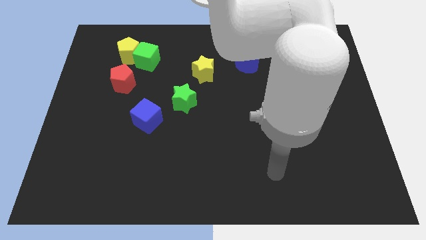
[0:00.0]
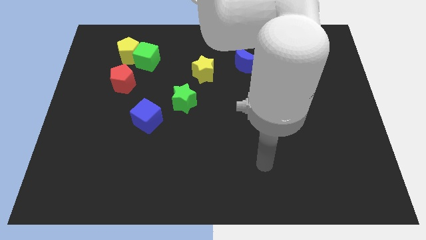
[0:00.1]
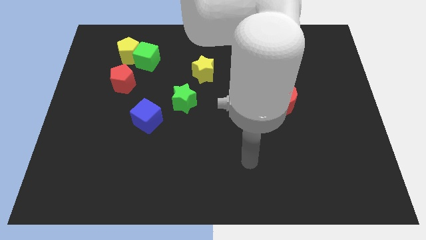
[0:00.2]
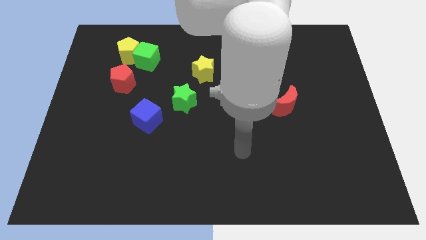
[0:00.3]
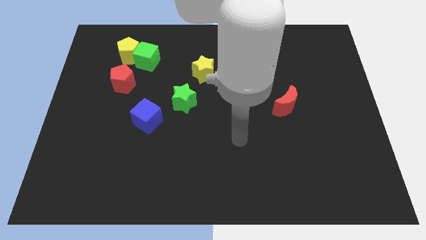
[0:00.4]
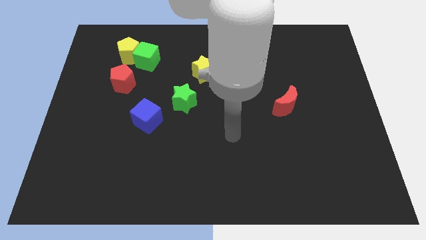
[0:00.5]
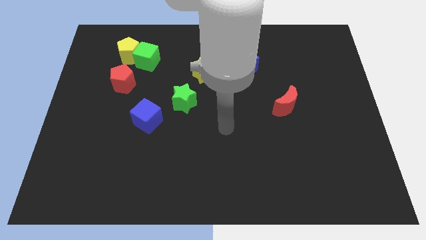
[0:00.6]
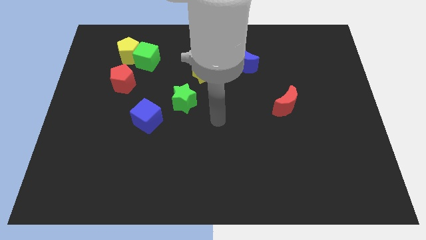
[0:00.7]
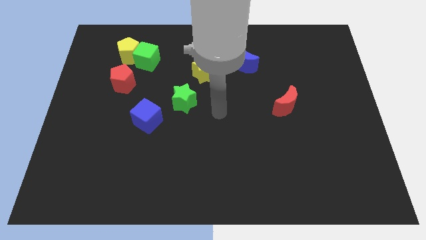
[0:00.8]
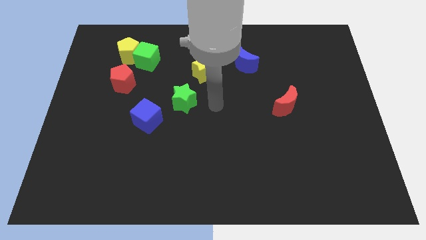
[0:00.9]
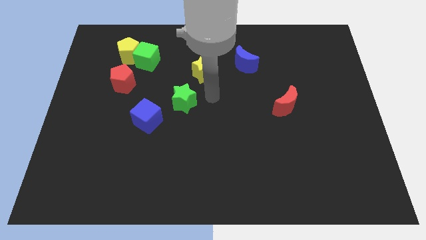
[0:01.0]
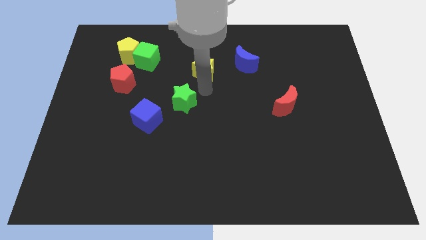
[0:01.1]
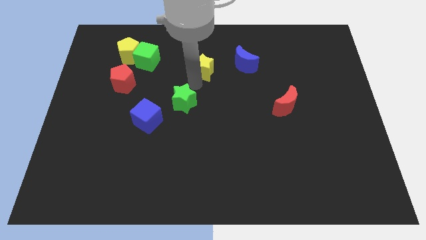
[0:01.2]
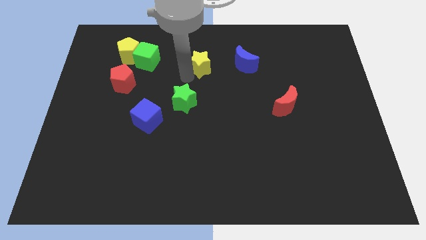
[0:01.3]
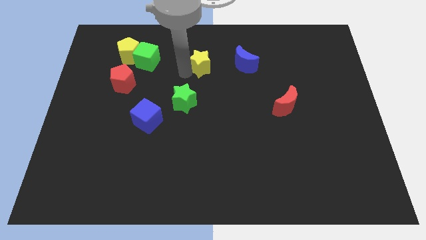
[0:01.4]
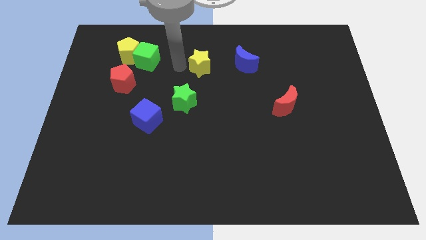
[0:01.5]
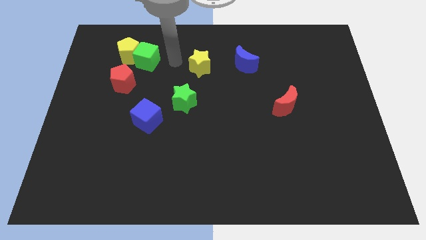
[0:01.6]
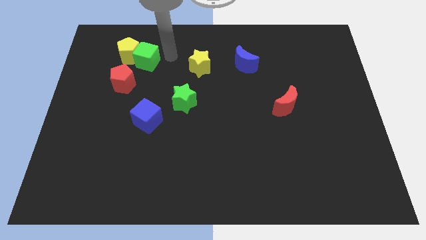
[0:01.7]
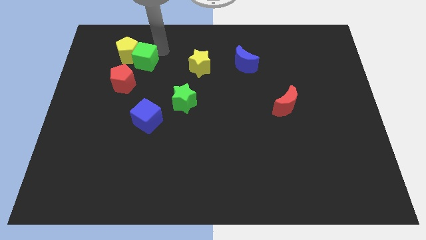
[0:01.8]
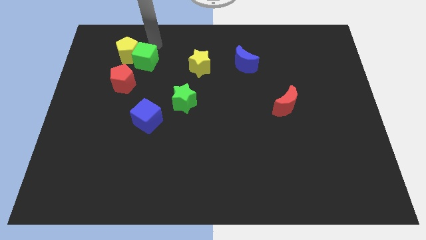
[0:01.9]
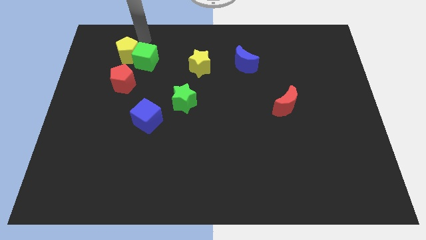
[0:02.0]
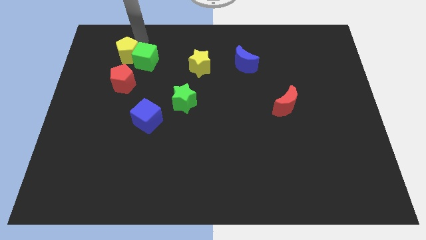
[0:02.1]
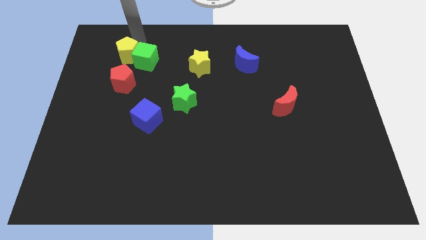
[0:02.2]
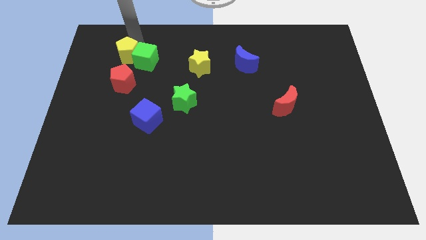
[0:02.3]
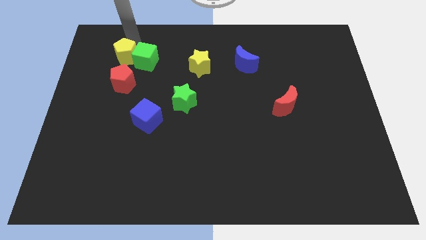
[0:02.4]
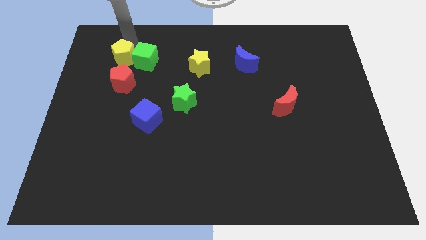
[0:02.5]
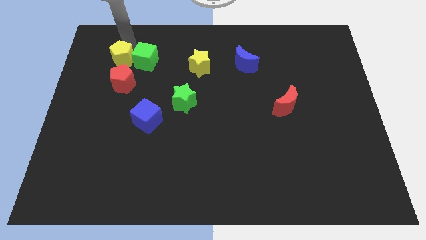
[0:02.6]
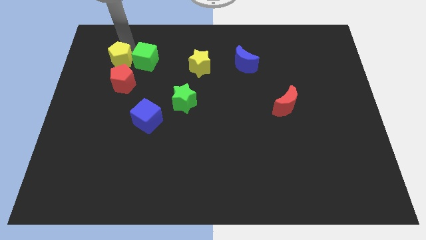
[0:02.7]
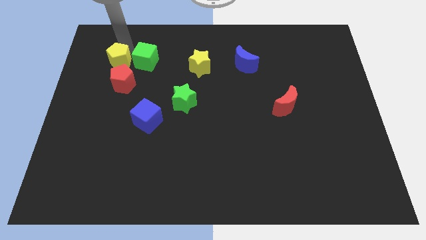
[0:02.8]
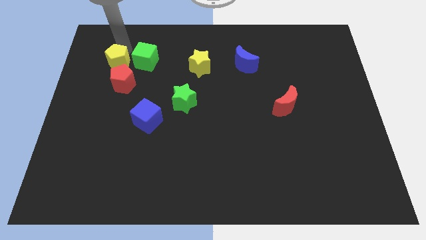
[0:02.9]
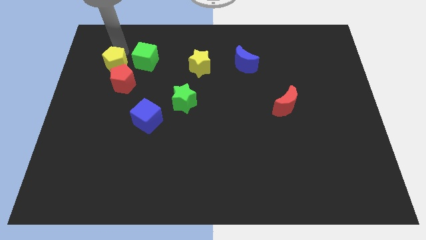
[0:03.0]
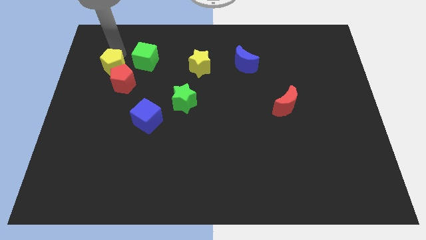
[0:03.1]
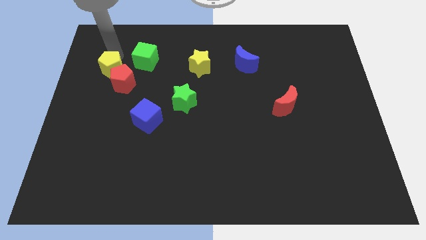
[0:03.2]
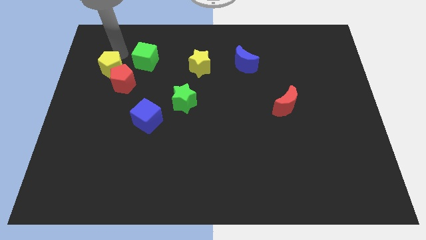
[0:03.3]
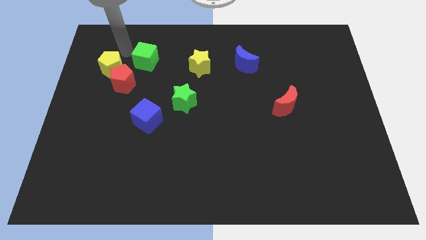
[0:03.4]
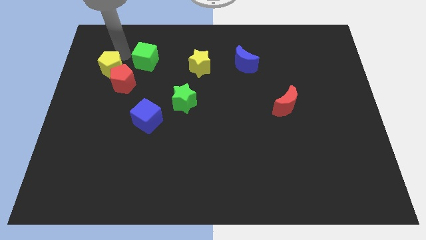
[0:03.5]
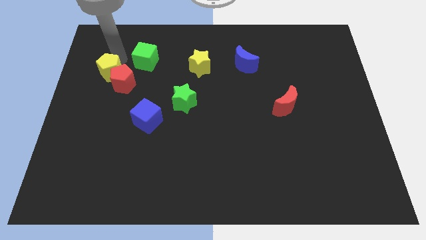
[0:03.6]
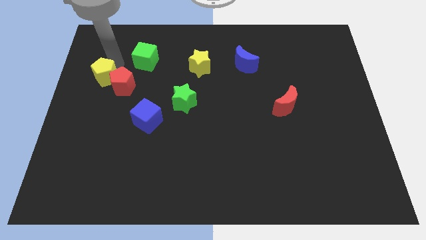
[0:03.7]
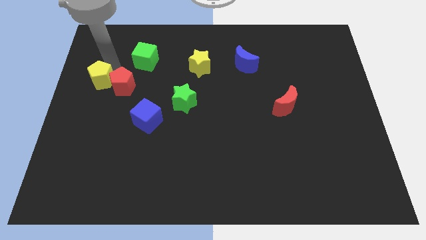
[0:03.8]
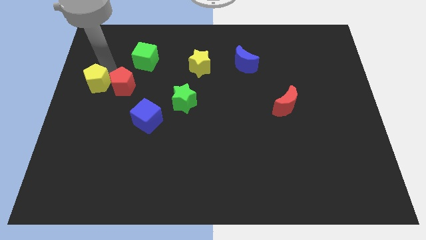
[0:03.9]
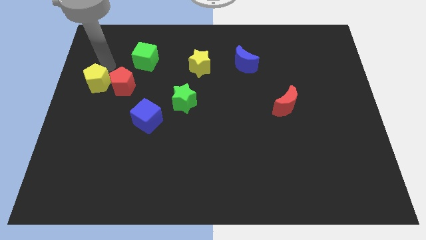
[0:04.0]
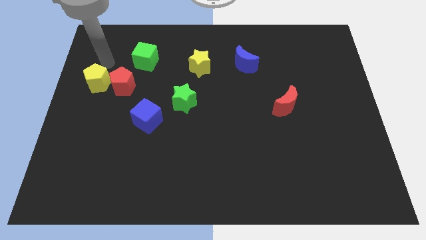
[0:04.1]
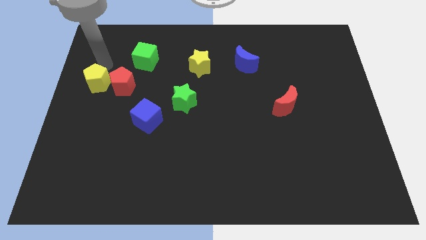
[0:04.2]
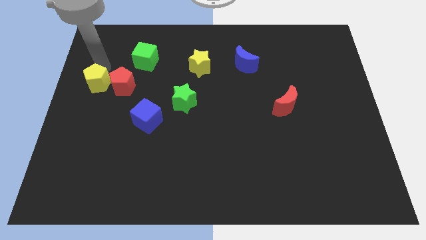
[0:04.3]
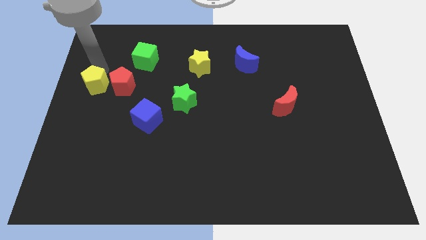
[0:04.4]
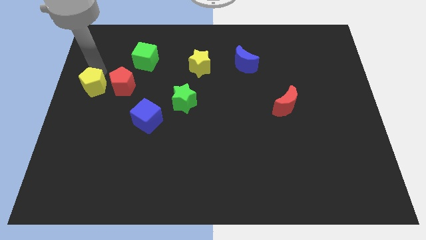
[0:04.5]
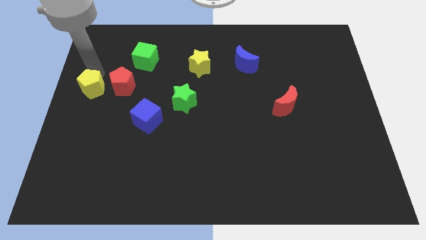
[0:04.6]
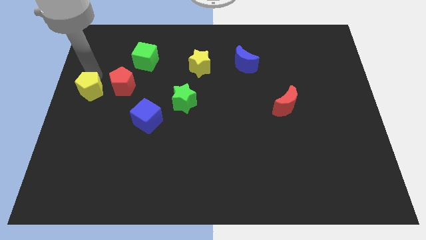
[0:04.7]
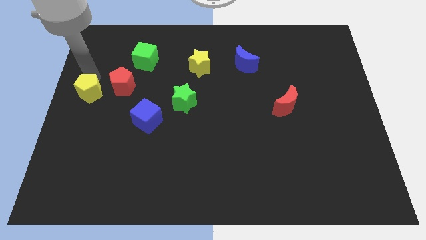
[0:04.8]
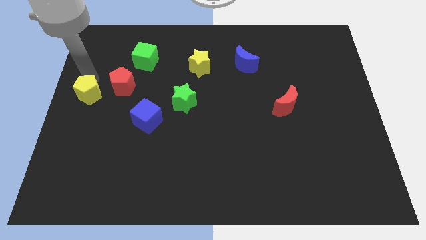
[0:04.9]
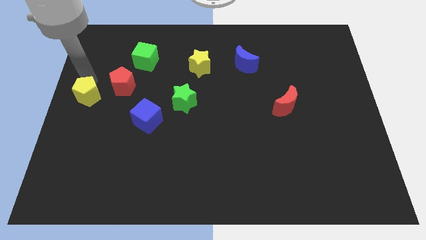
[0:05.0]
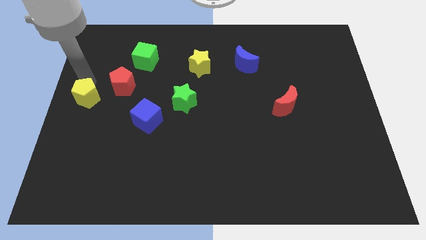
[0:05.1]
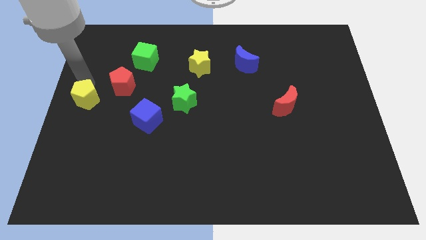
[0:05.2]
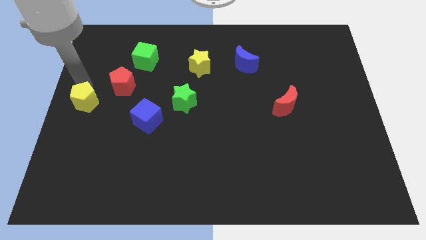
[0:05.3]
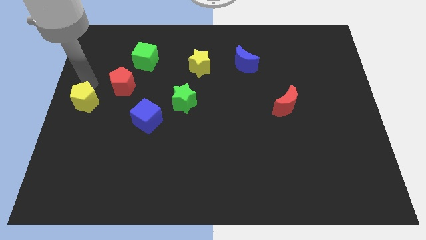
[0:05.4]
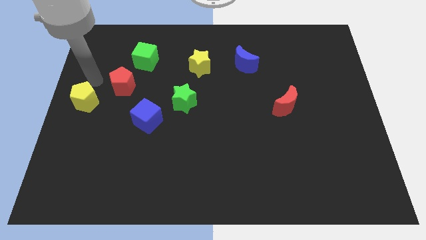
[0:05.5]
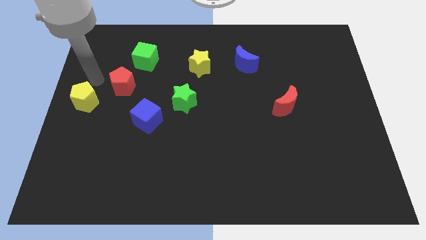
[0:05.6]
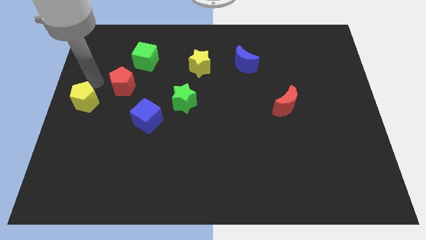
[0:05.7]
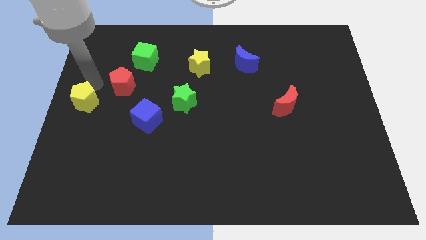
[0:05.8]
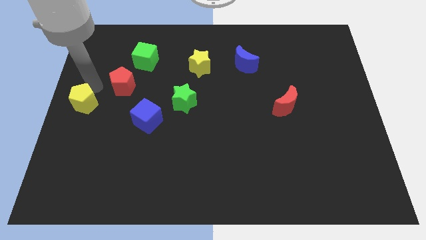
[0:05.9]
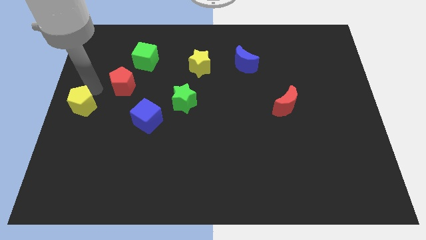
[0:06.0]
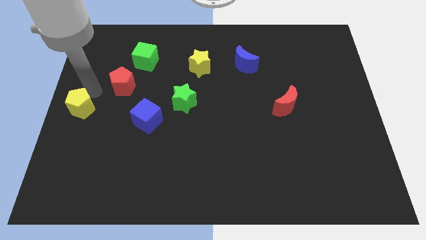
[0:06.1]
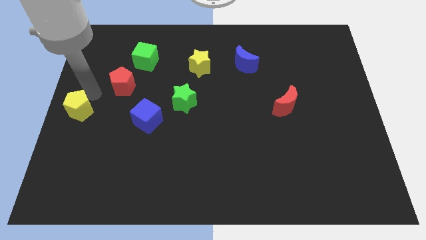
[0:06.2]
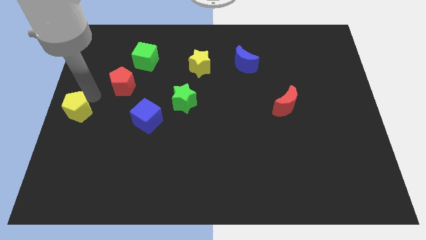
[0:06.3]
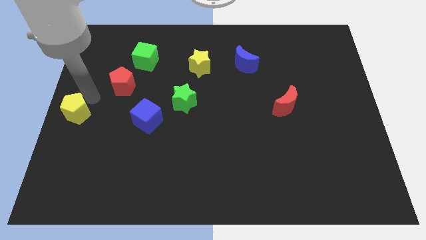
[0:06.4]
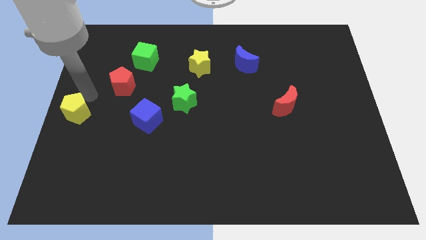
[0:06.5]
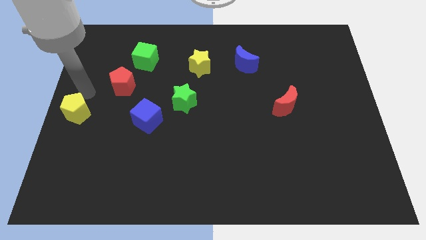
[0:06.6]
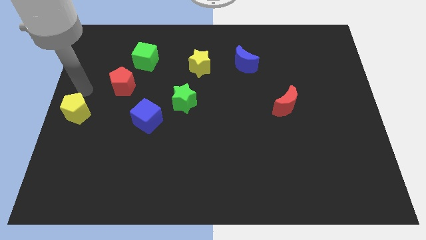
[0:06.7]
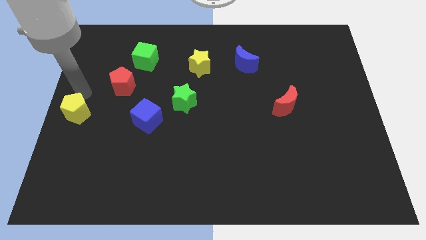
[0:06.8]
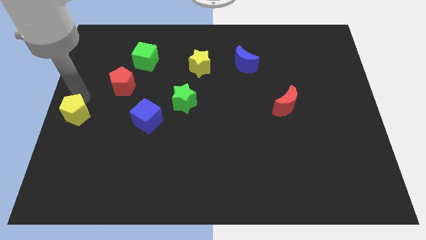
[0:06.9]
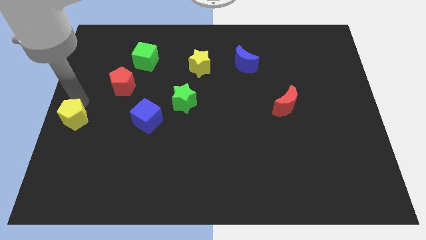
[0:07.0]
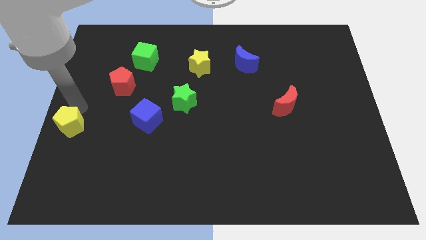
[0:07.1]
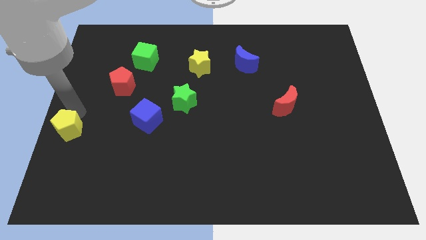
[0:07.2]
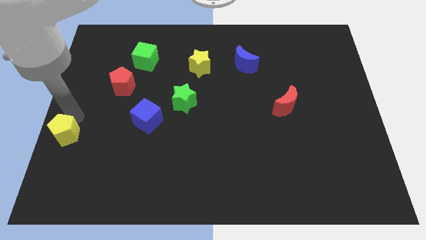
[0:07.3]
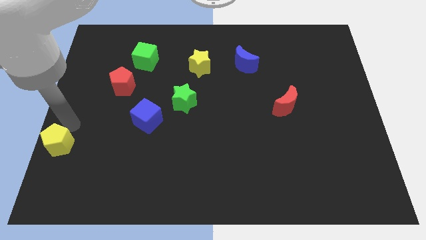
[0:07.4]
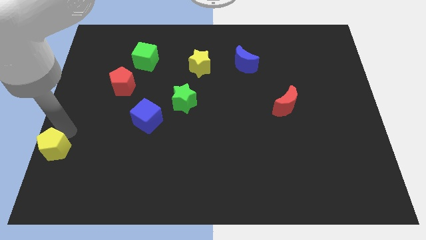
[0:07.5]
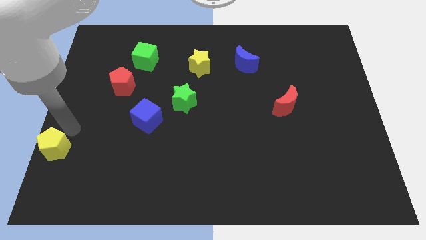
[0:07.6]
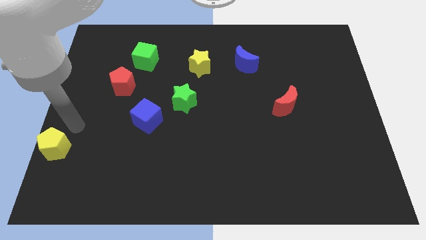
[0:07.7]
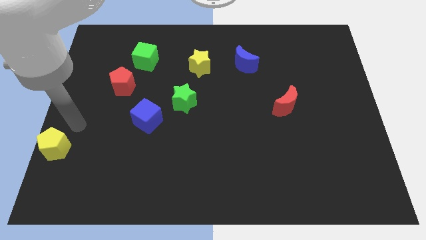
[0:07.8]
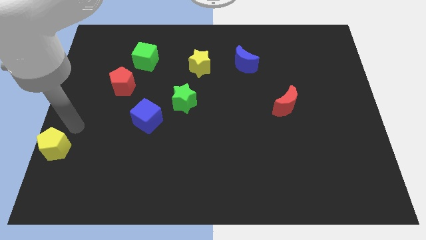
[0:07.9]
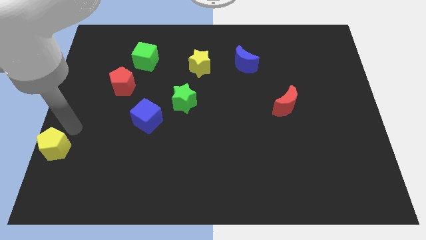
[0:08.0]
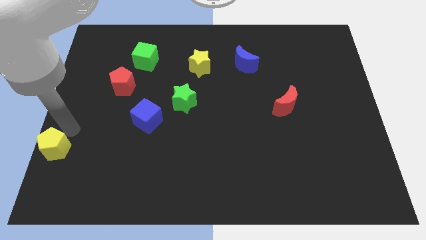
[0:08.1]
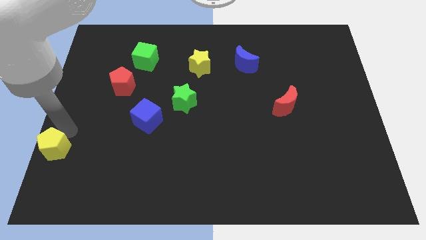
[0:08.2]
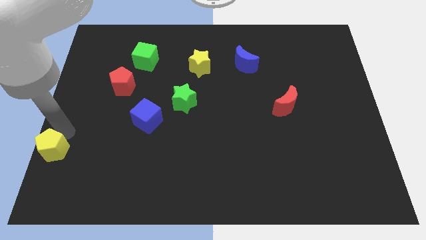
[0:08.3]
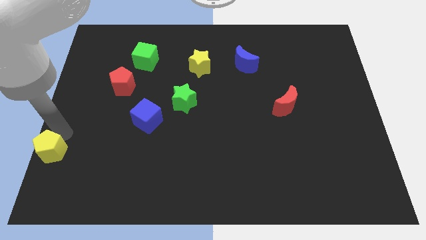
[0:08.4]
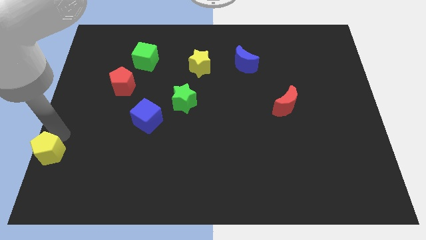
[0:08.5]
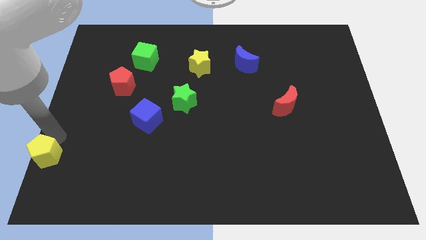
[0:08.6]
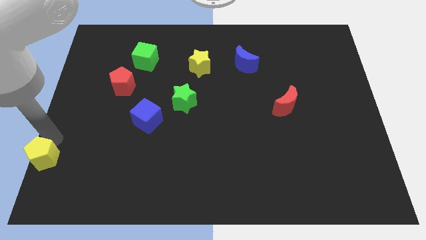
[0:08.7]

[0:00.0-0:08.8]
put the yellow pentagon to the lower left corner
